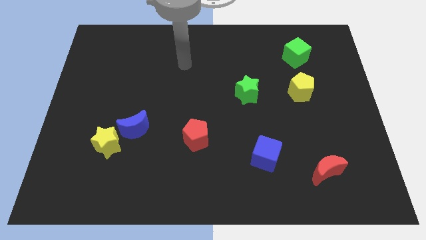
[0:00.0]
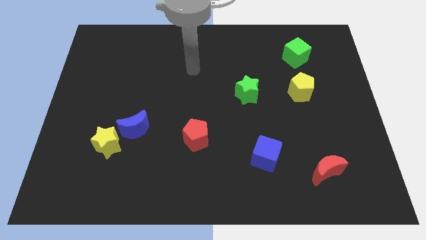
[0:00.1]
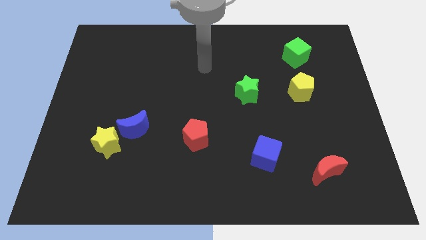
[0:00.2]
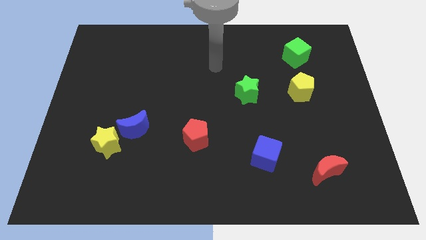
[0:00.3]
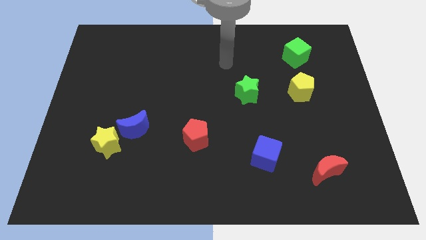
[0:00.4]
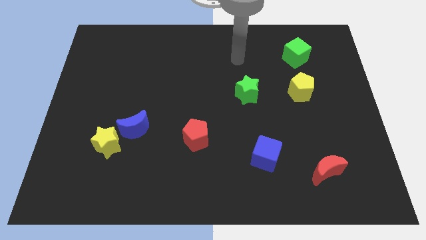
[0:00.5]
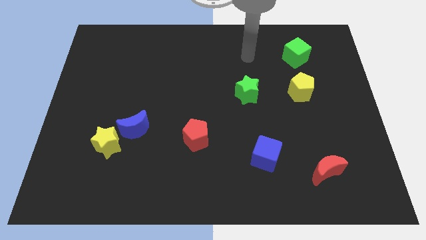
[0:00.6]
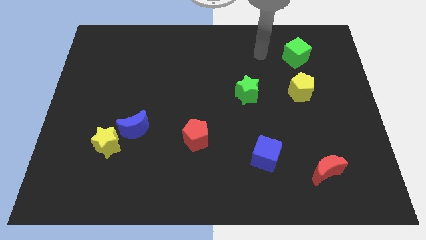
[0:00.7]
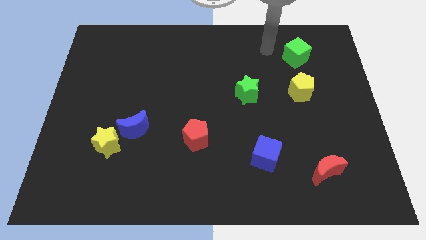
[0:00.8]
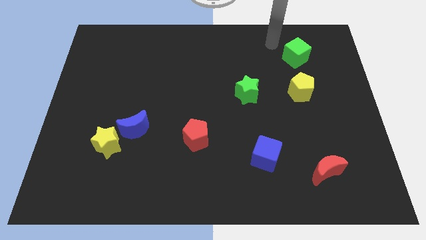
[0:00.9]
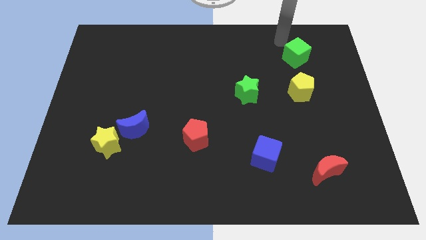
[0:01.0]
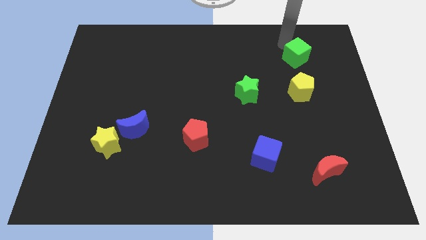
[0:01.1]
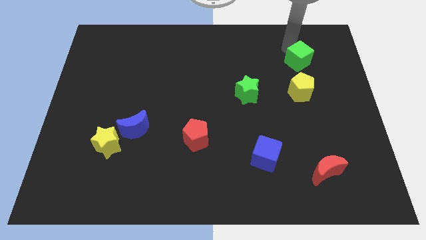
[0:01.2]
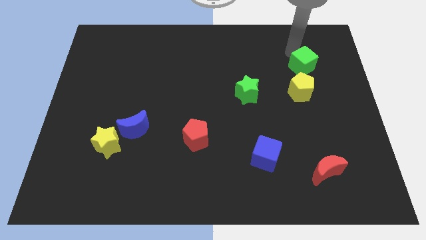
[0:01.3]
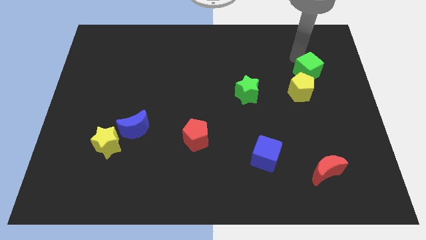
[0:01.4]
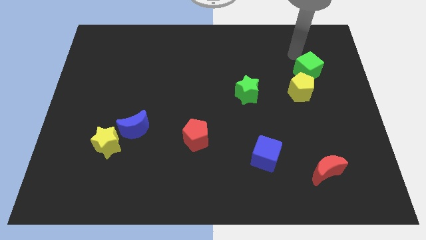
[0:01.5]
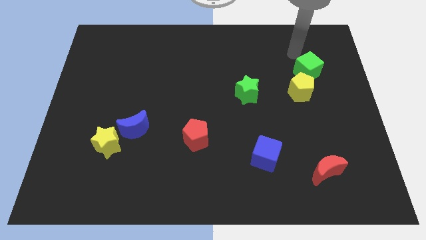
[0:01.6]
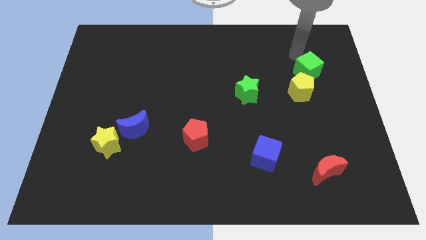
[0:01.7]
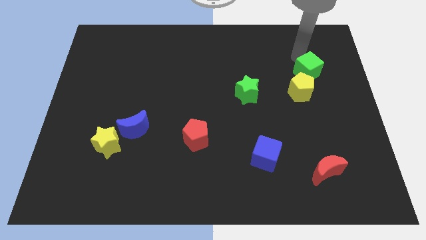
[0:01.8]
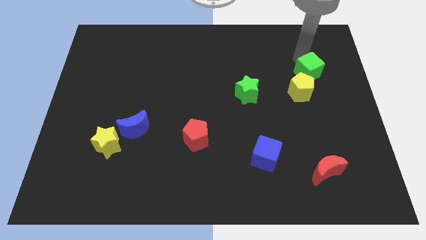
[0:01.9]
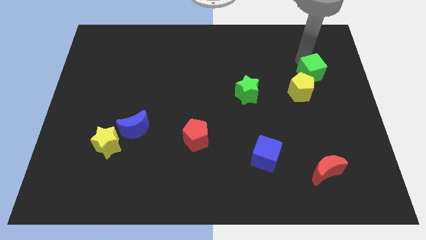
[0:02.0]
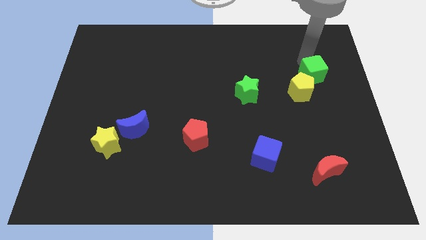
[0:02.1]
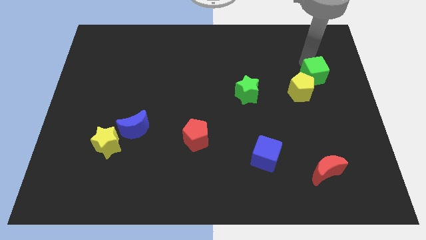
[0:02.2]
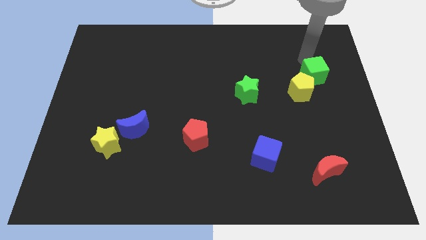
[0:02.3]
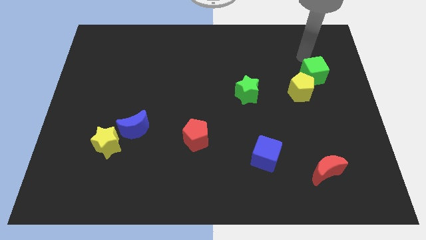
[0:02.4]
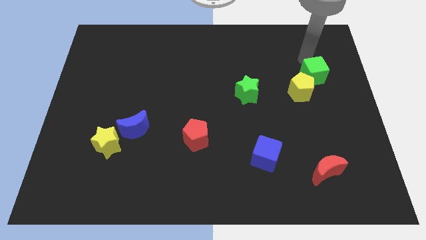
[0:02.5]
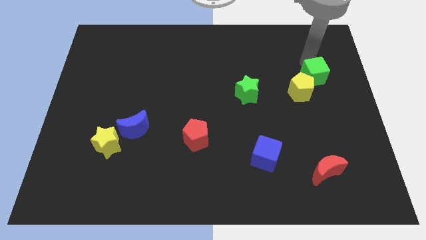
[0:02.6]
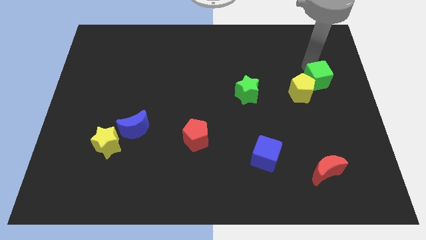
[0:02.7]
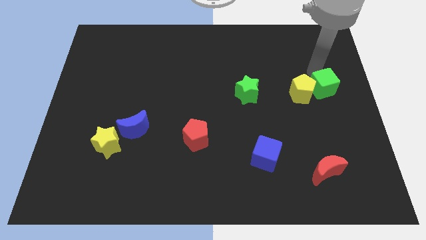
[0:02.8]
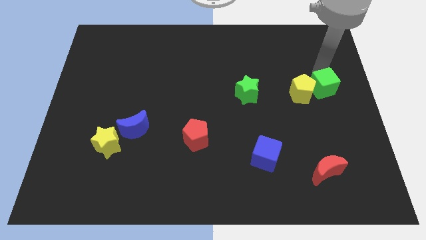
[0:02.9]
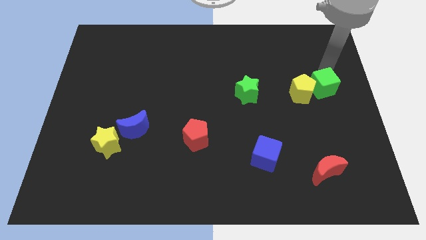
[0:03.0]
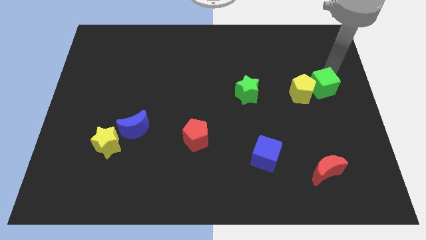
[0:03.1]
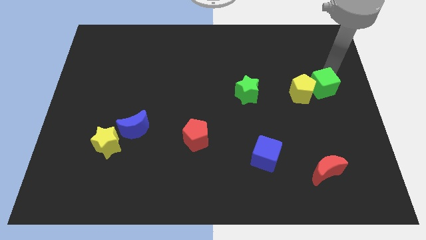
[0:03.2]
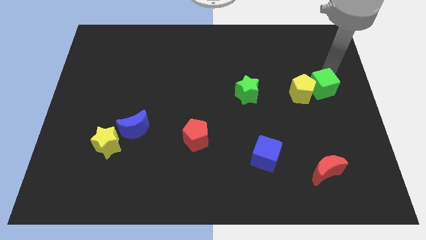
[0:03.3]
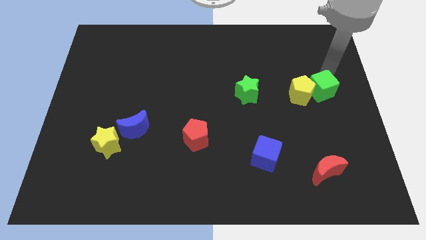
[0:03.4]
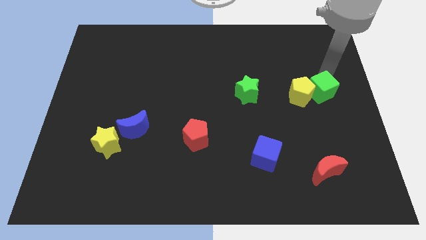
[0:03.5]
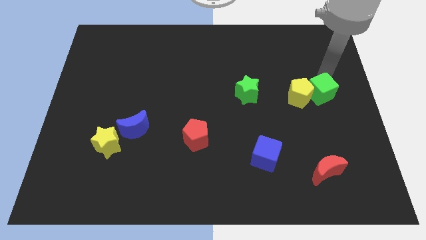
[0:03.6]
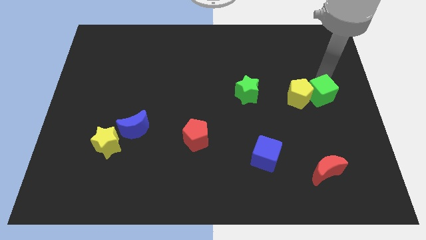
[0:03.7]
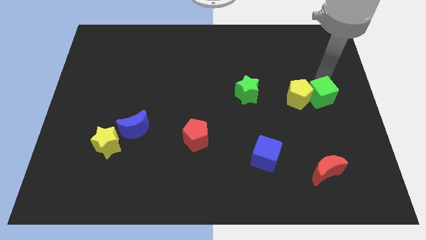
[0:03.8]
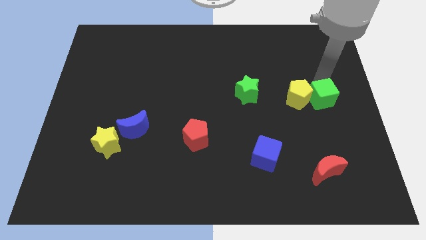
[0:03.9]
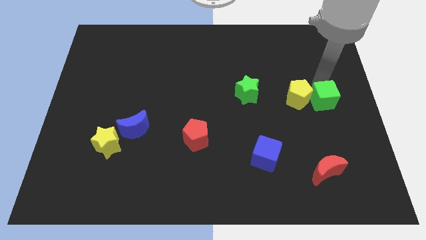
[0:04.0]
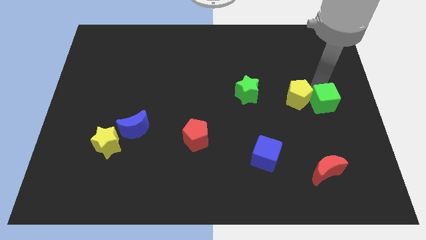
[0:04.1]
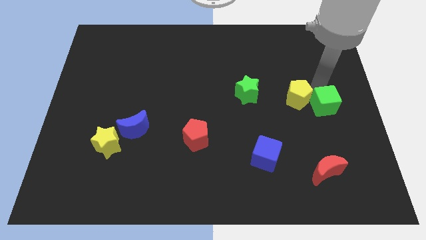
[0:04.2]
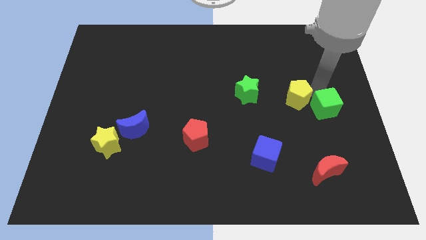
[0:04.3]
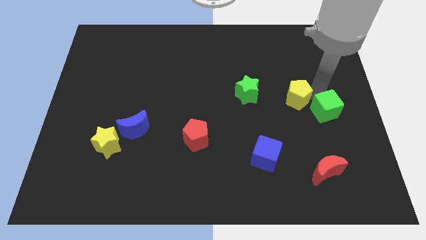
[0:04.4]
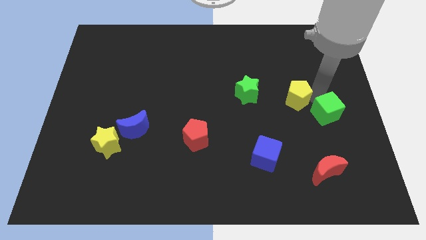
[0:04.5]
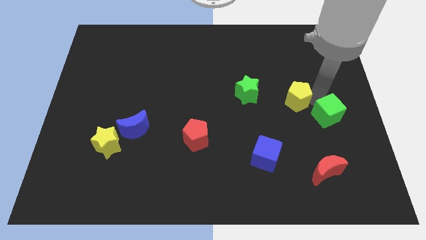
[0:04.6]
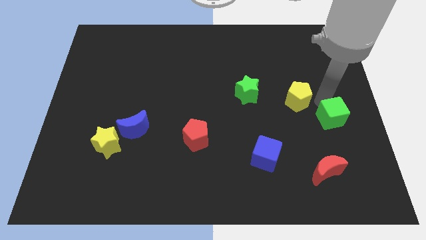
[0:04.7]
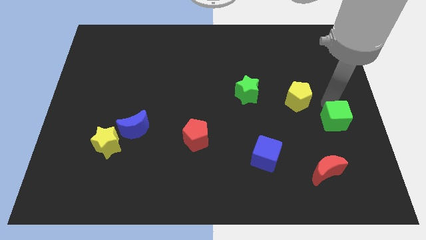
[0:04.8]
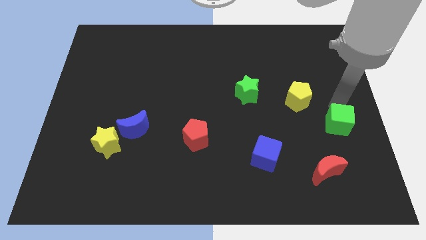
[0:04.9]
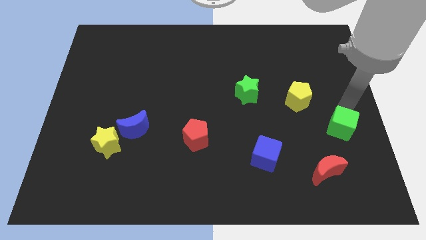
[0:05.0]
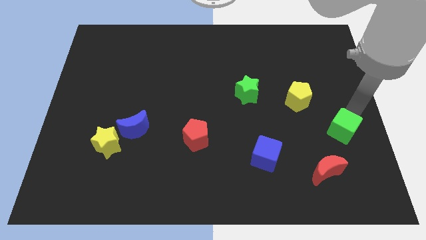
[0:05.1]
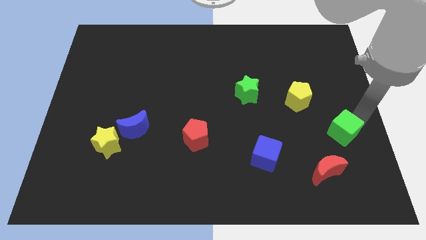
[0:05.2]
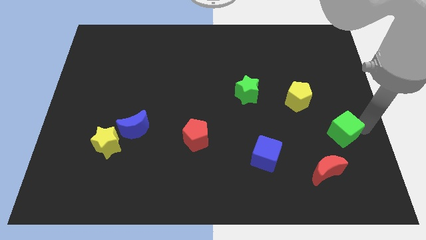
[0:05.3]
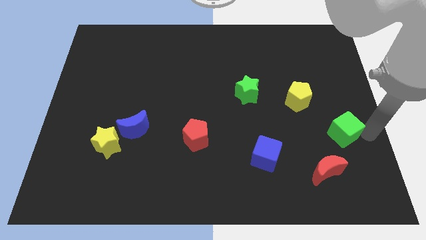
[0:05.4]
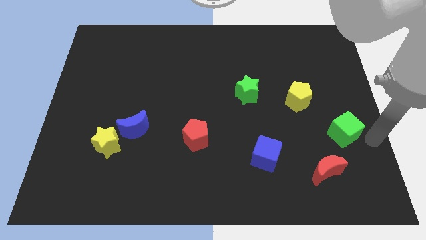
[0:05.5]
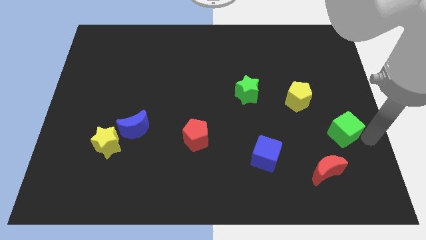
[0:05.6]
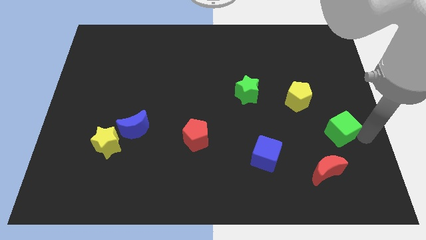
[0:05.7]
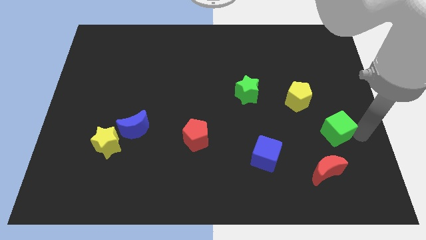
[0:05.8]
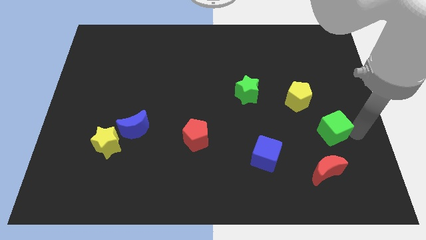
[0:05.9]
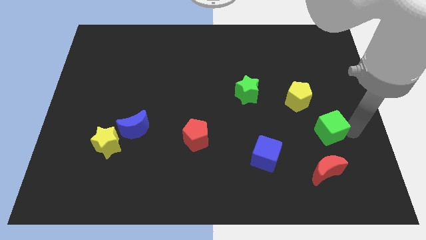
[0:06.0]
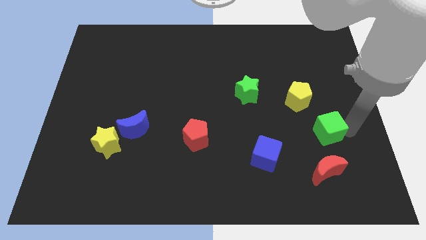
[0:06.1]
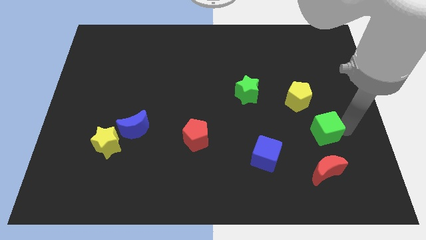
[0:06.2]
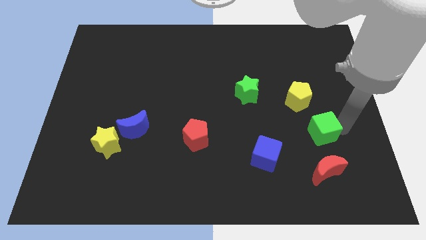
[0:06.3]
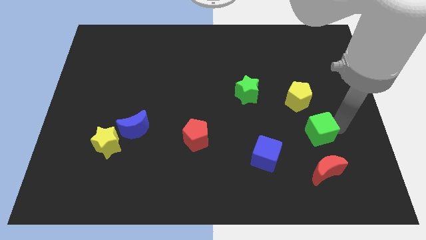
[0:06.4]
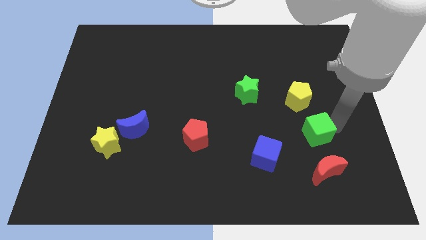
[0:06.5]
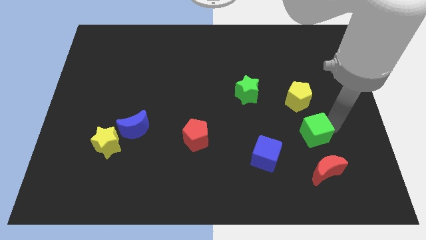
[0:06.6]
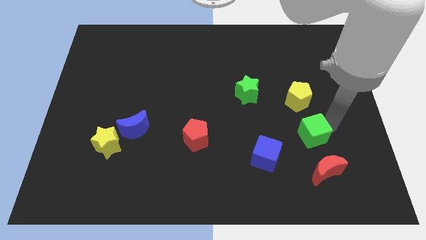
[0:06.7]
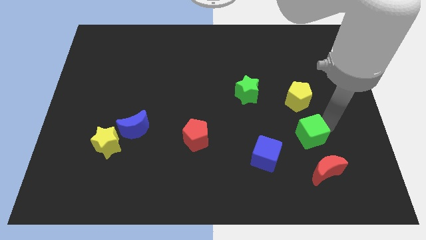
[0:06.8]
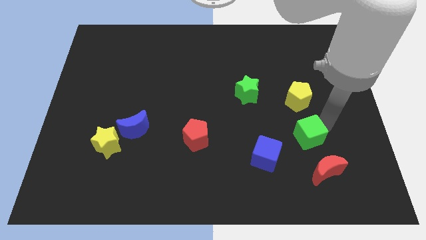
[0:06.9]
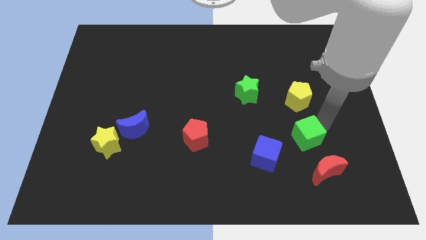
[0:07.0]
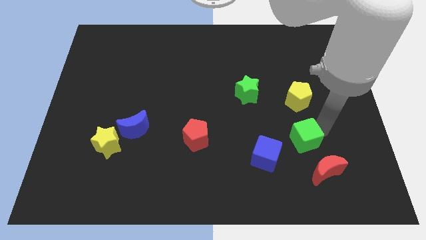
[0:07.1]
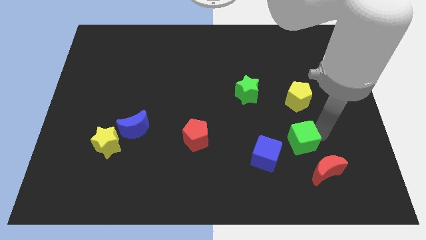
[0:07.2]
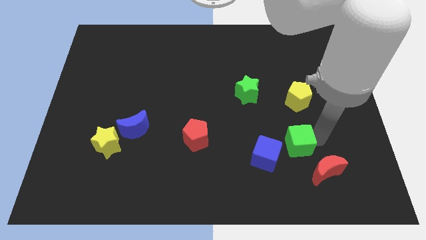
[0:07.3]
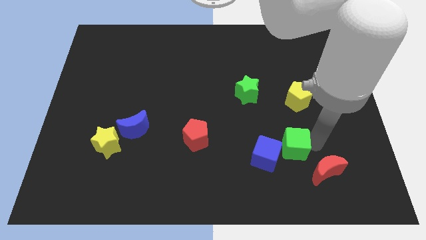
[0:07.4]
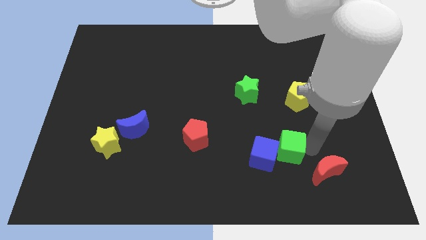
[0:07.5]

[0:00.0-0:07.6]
push the green cube towards the blue cube

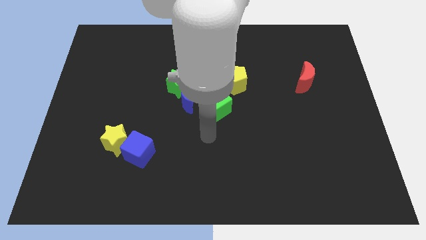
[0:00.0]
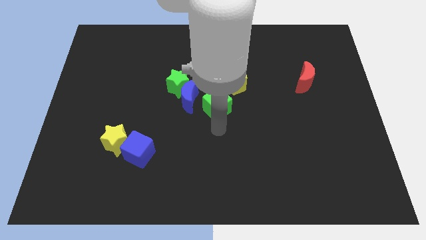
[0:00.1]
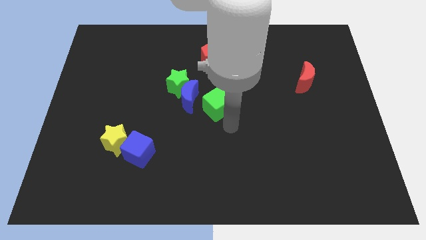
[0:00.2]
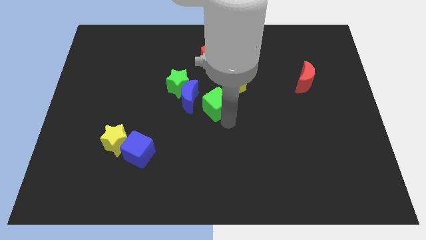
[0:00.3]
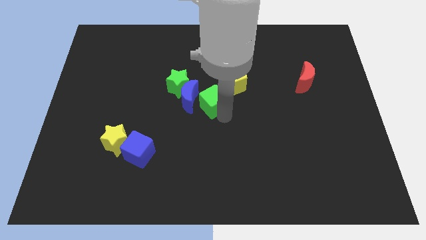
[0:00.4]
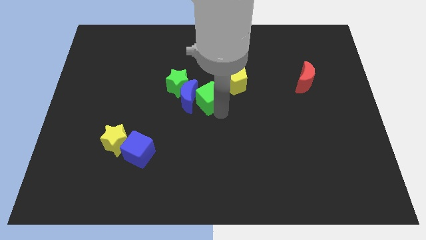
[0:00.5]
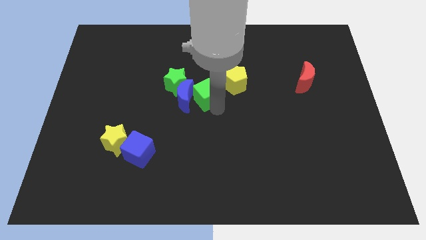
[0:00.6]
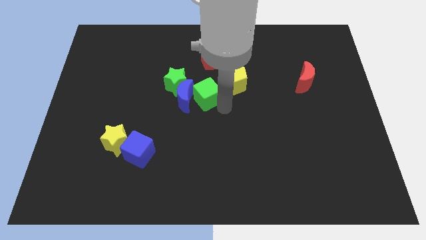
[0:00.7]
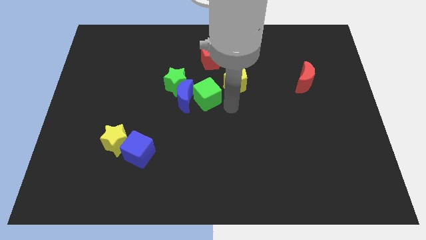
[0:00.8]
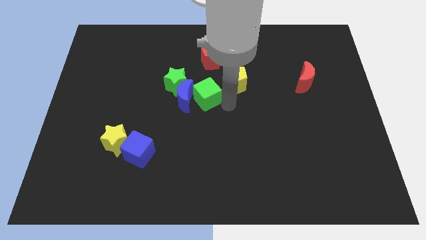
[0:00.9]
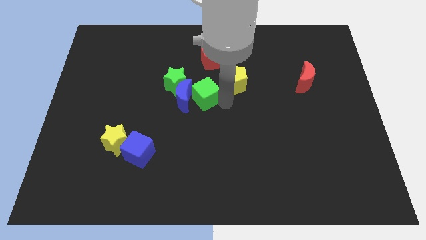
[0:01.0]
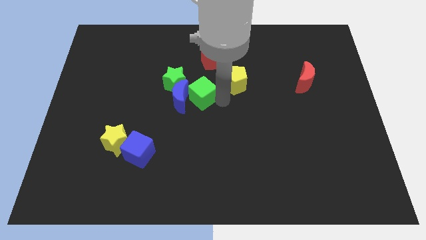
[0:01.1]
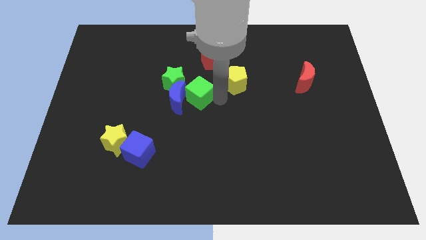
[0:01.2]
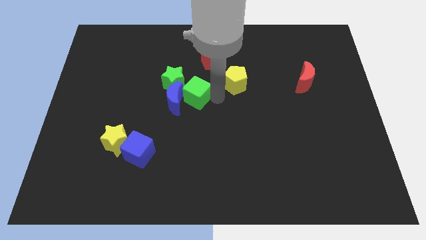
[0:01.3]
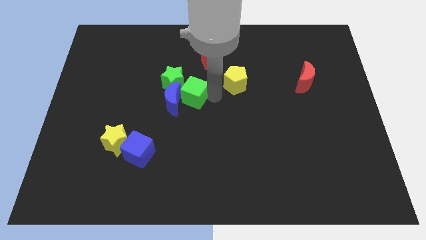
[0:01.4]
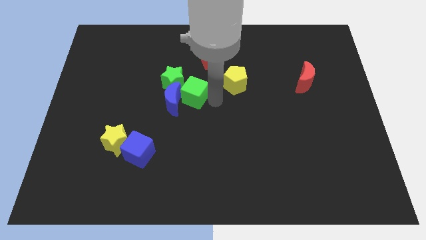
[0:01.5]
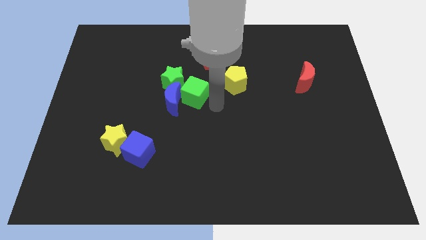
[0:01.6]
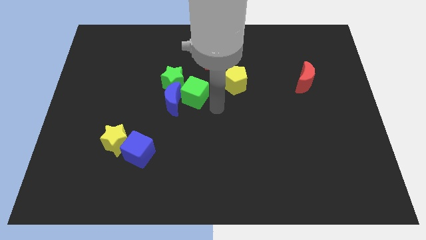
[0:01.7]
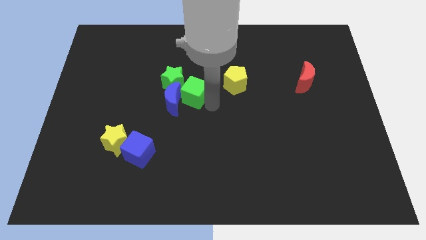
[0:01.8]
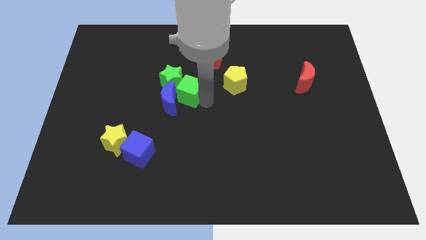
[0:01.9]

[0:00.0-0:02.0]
slide the green cube to the green star
